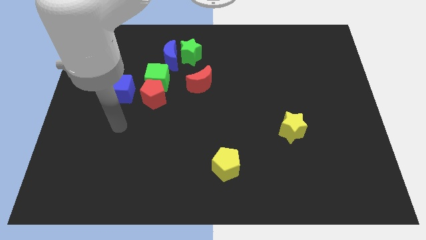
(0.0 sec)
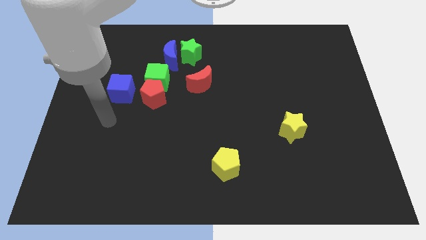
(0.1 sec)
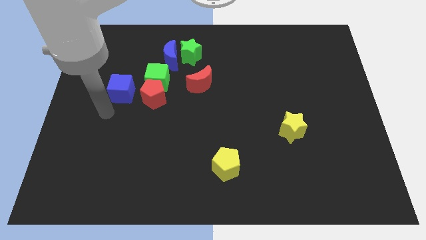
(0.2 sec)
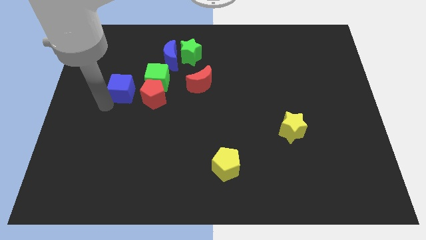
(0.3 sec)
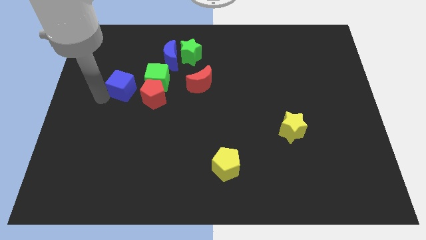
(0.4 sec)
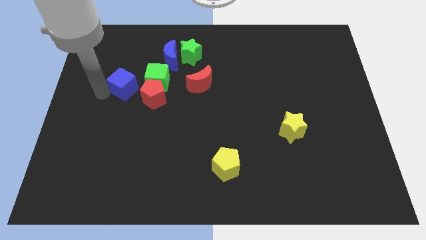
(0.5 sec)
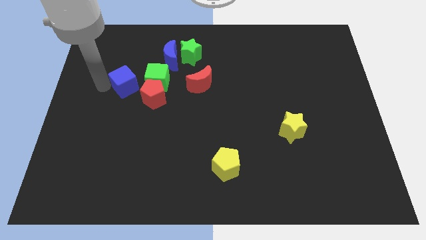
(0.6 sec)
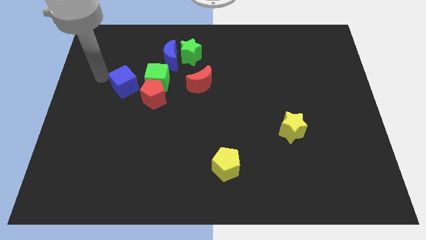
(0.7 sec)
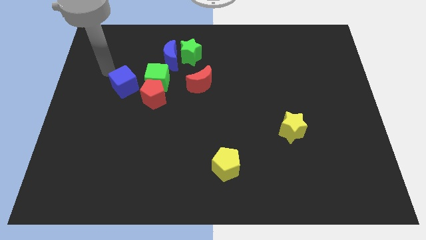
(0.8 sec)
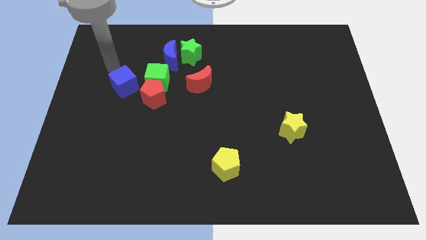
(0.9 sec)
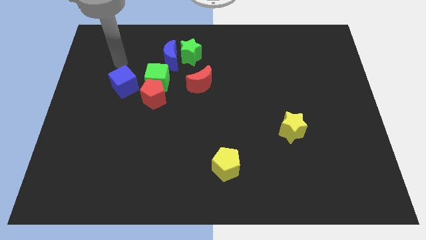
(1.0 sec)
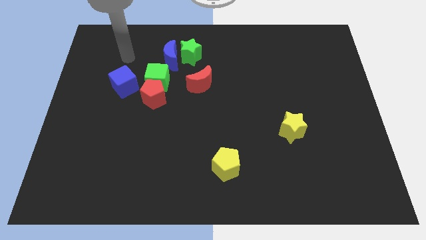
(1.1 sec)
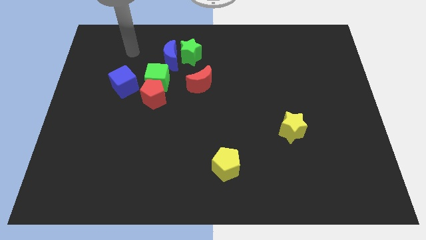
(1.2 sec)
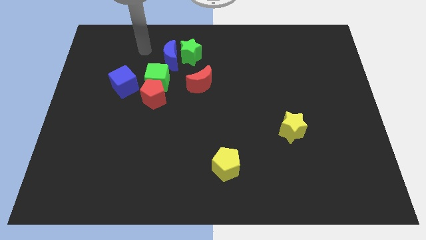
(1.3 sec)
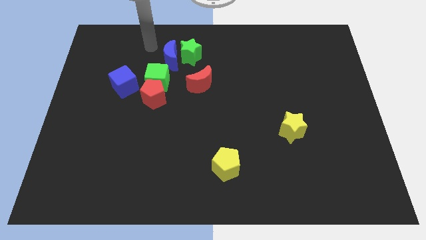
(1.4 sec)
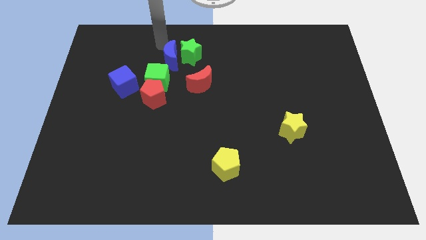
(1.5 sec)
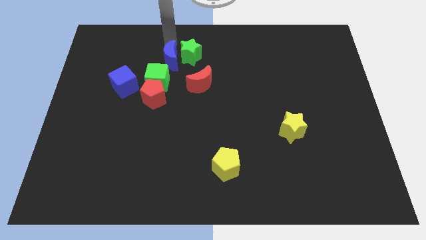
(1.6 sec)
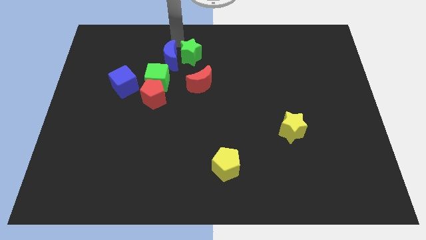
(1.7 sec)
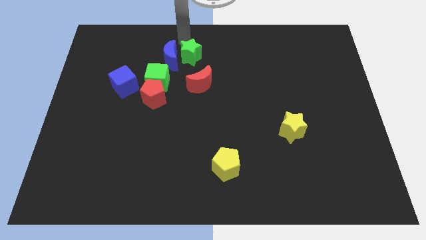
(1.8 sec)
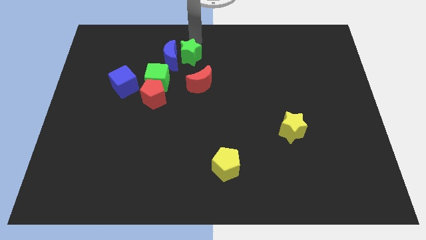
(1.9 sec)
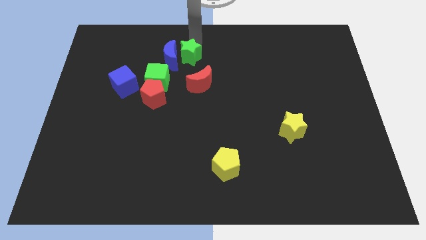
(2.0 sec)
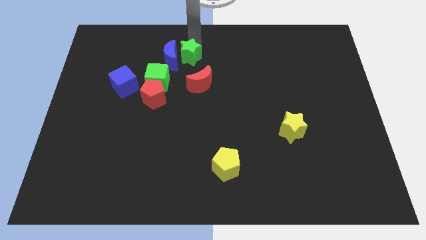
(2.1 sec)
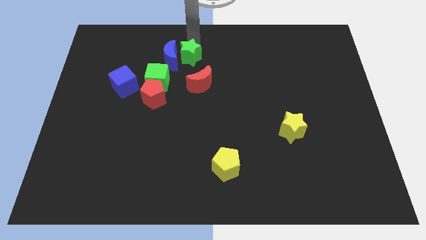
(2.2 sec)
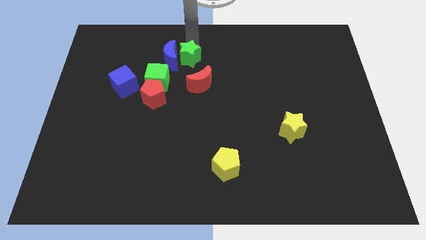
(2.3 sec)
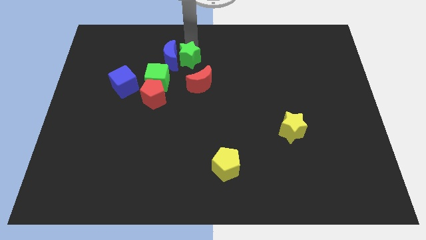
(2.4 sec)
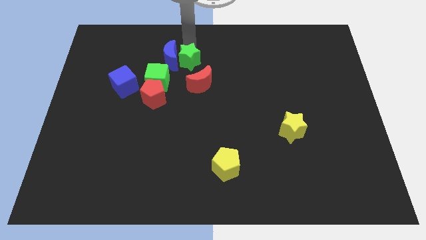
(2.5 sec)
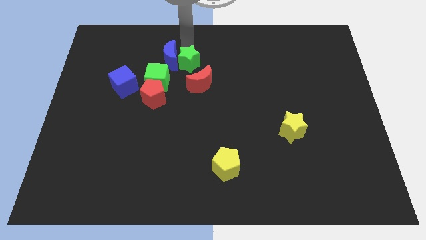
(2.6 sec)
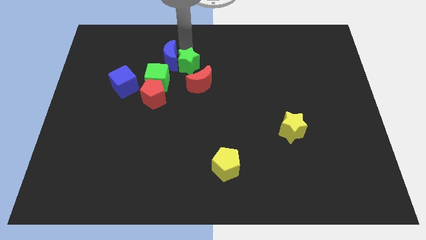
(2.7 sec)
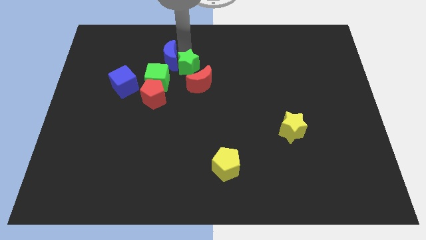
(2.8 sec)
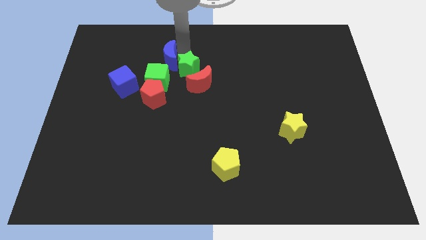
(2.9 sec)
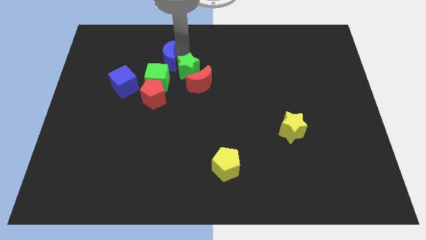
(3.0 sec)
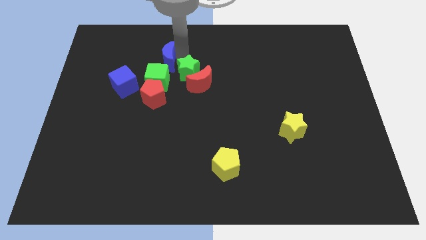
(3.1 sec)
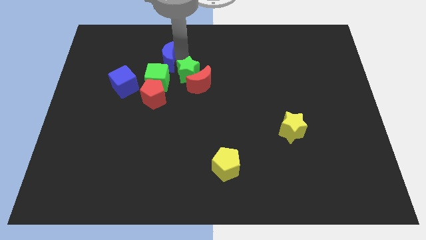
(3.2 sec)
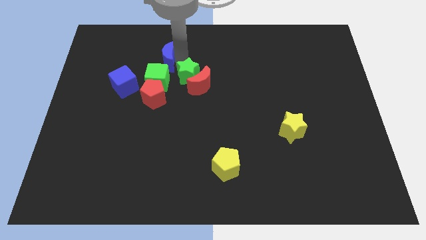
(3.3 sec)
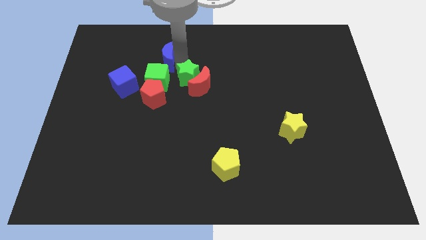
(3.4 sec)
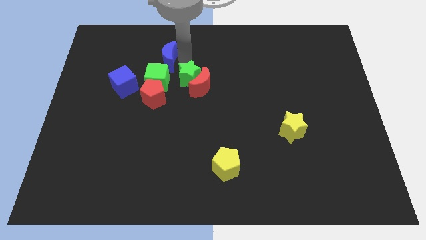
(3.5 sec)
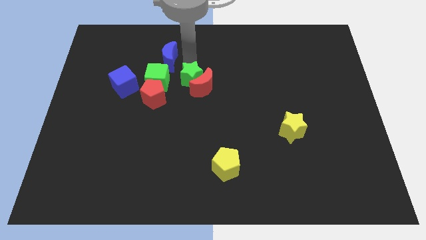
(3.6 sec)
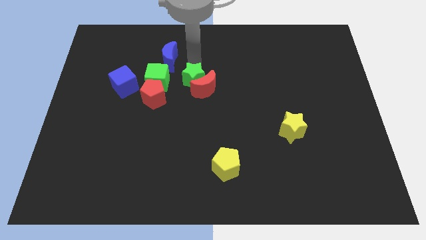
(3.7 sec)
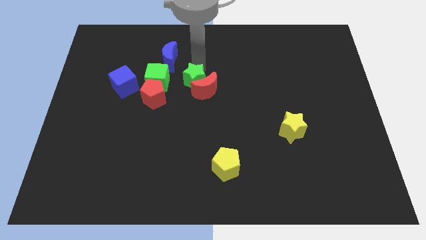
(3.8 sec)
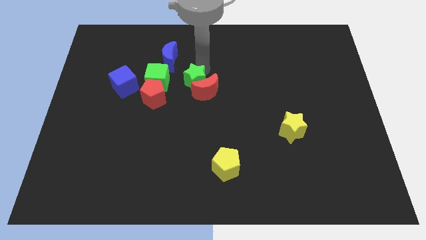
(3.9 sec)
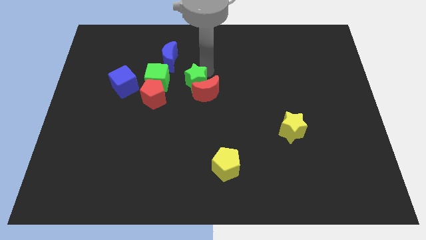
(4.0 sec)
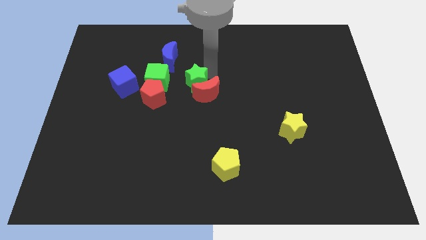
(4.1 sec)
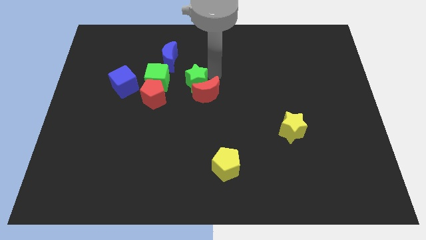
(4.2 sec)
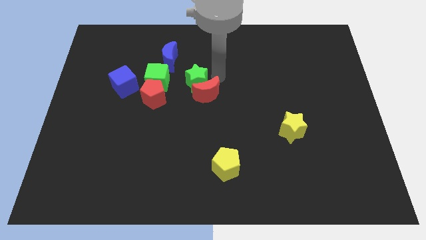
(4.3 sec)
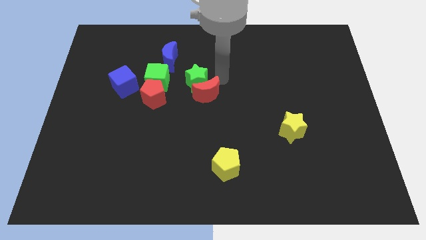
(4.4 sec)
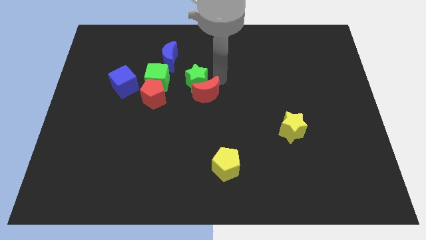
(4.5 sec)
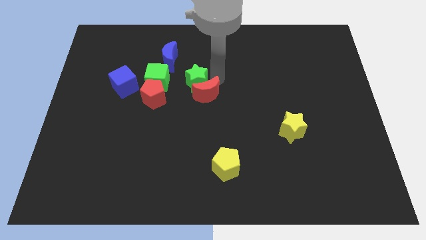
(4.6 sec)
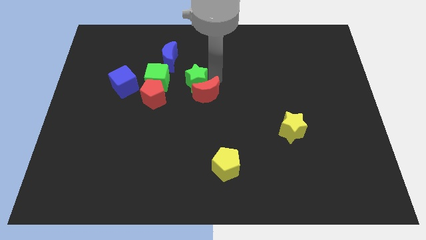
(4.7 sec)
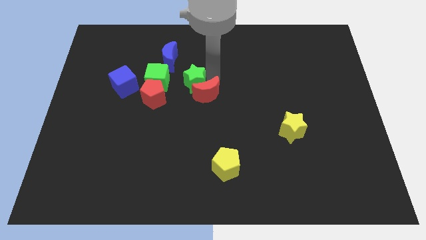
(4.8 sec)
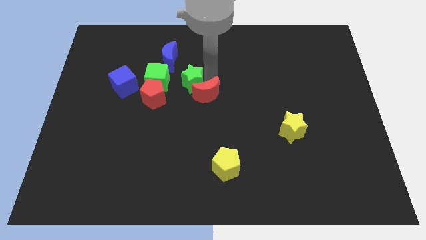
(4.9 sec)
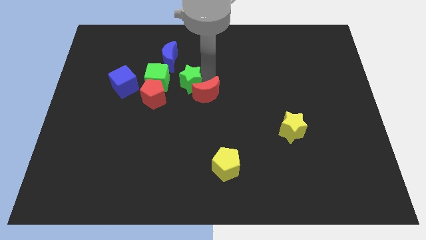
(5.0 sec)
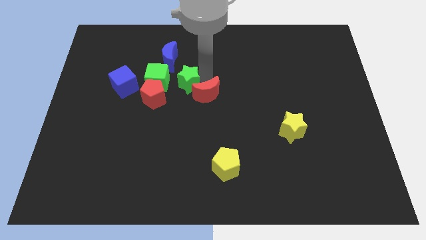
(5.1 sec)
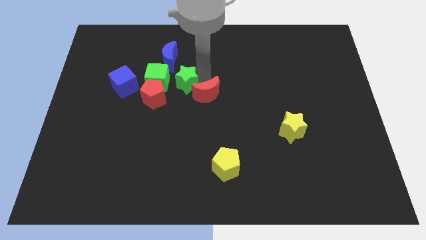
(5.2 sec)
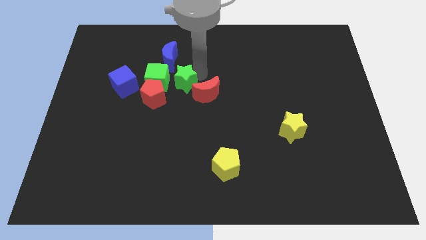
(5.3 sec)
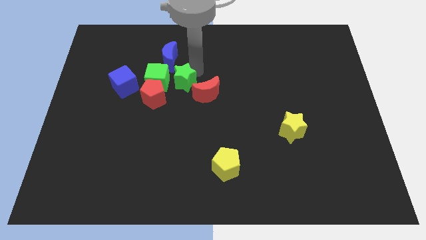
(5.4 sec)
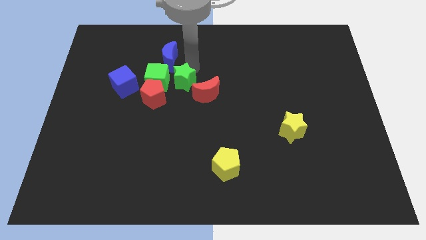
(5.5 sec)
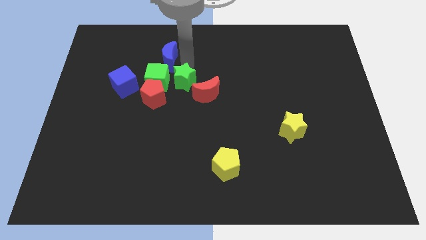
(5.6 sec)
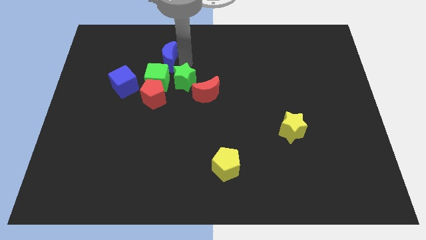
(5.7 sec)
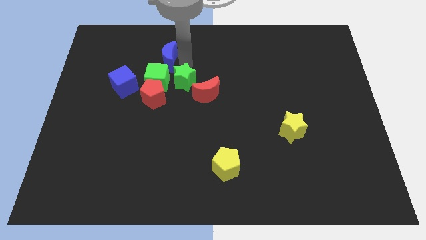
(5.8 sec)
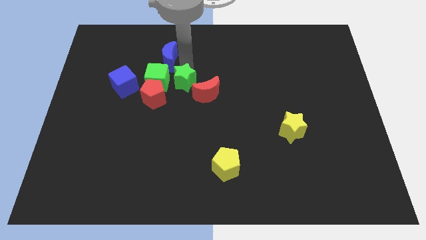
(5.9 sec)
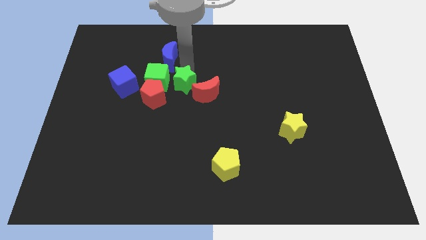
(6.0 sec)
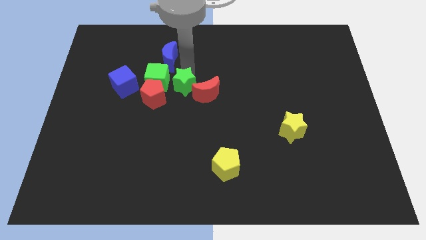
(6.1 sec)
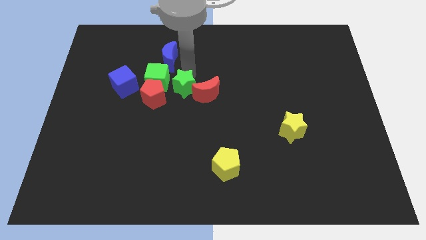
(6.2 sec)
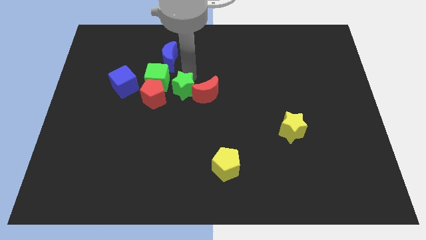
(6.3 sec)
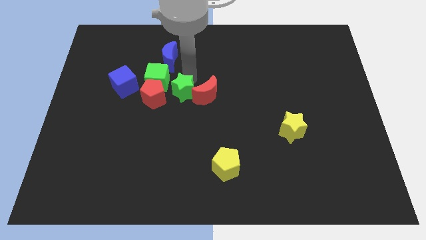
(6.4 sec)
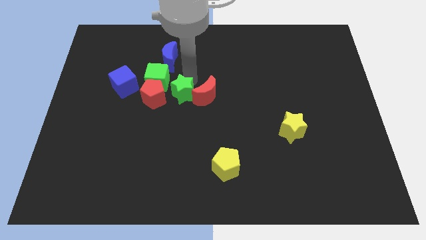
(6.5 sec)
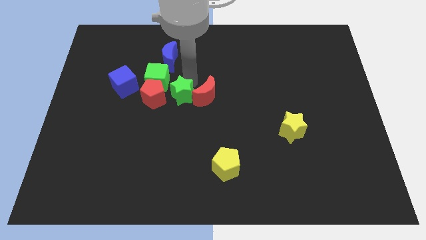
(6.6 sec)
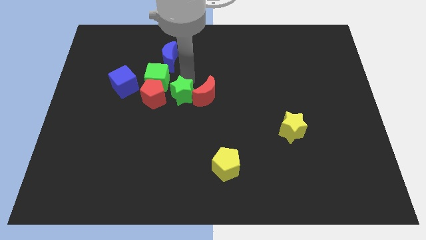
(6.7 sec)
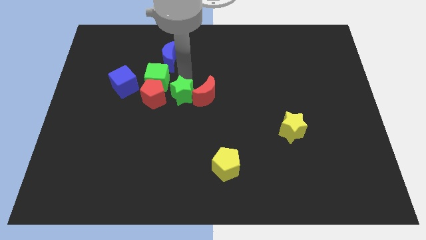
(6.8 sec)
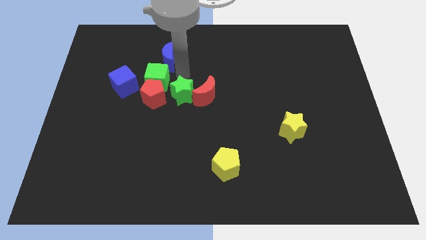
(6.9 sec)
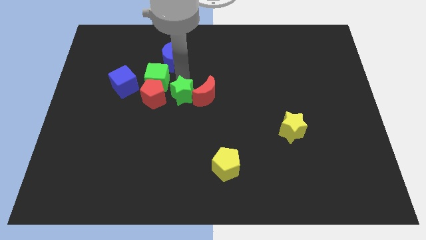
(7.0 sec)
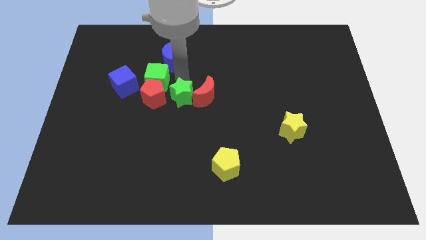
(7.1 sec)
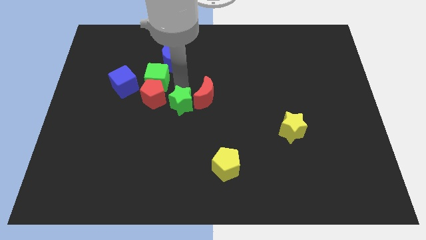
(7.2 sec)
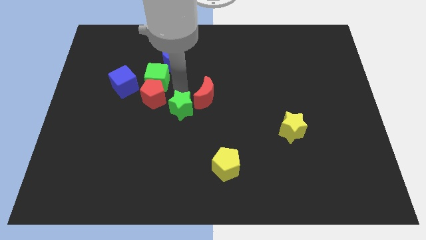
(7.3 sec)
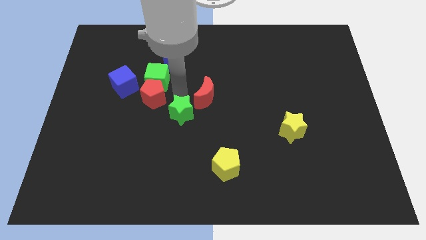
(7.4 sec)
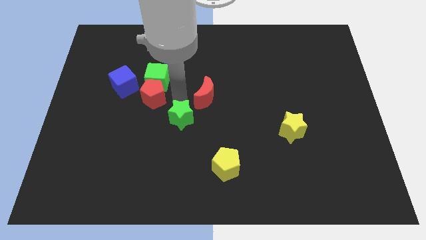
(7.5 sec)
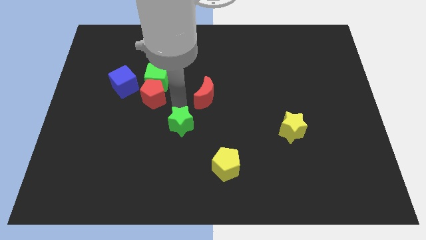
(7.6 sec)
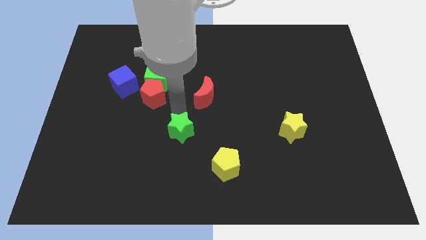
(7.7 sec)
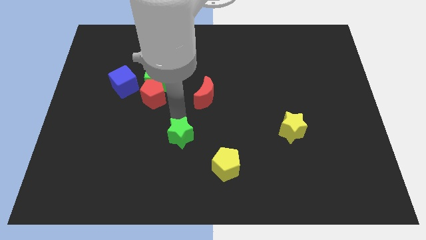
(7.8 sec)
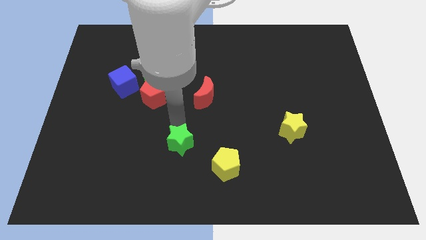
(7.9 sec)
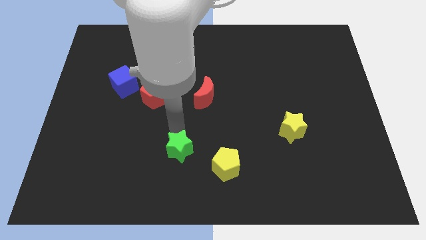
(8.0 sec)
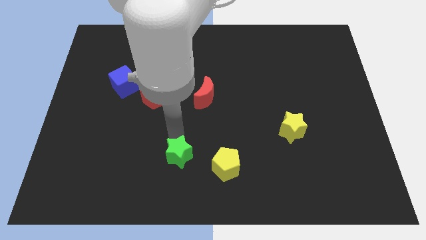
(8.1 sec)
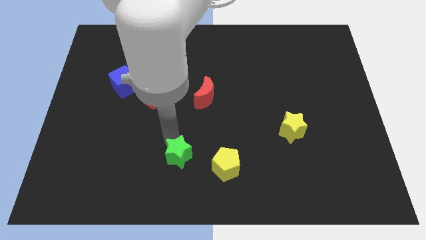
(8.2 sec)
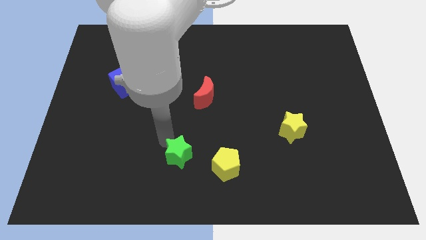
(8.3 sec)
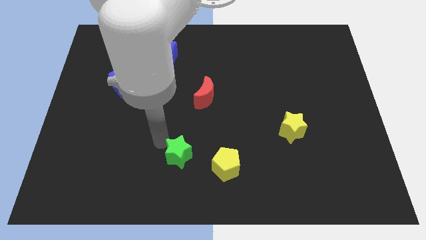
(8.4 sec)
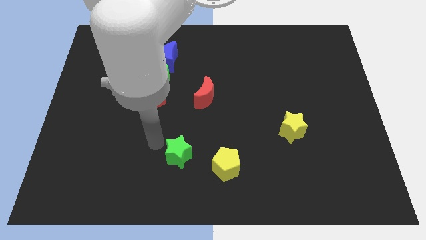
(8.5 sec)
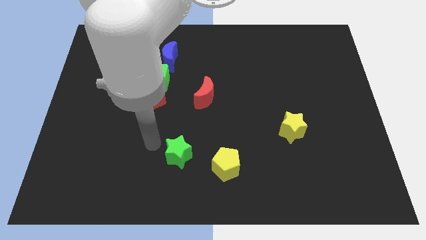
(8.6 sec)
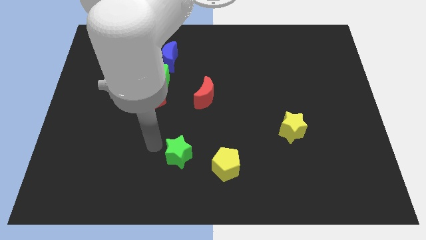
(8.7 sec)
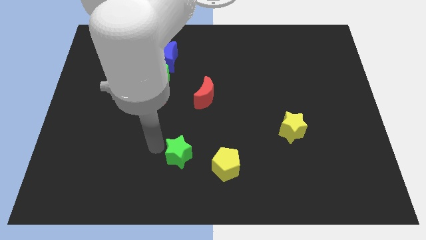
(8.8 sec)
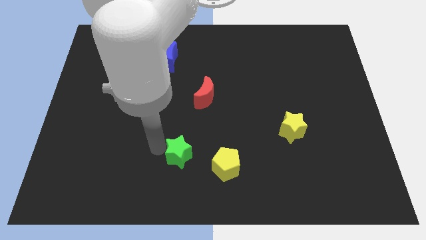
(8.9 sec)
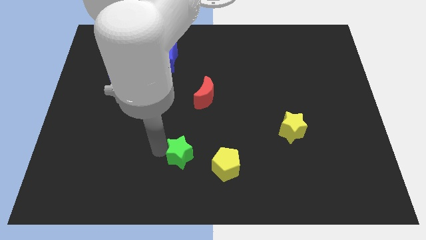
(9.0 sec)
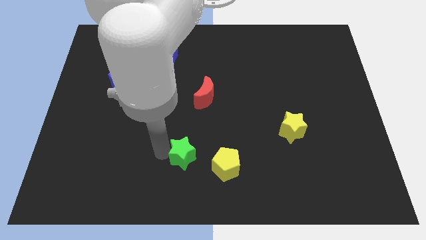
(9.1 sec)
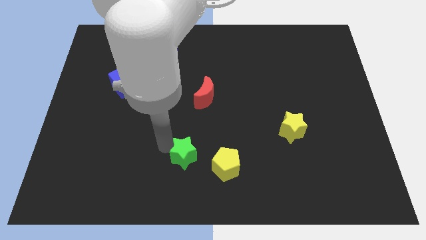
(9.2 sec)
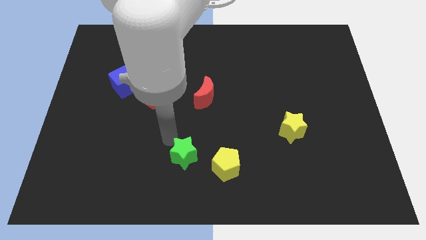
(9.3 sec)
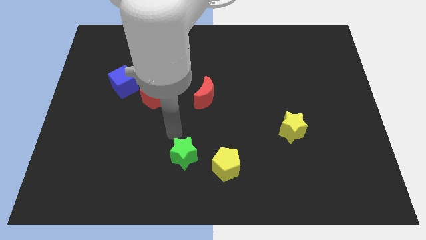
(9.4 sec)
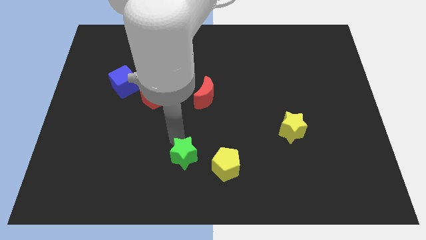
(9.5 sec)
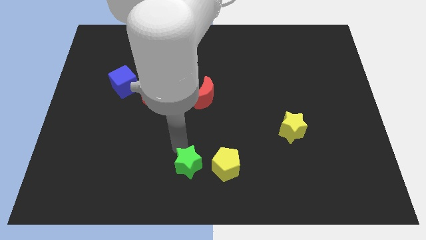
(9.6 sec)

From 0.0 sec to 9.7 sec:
push the green star to the bottom side
